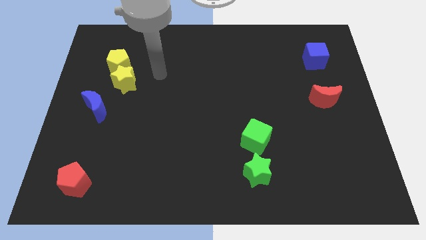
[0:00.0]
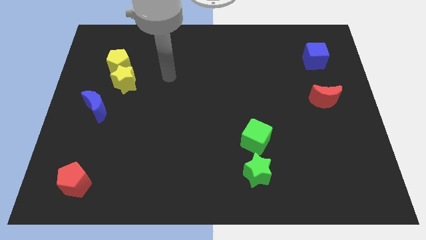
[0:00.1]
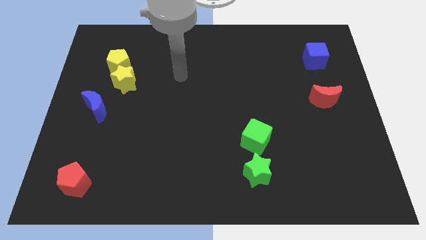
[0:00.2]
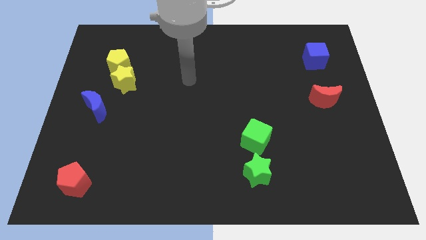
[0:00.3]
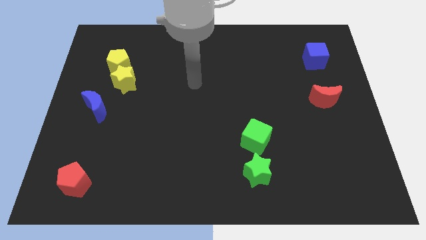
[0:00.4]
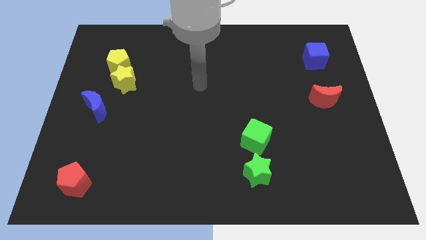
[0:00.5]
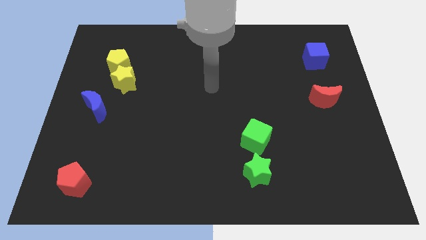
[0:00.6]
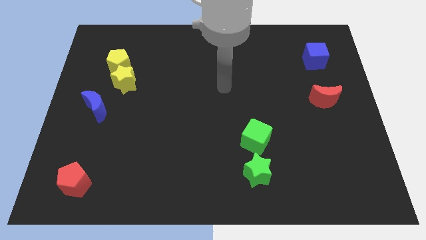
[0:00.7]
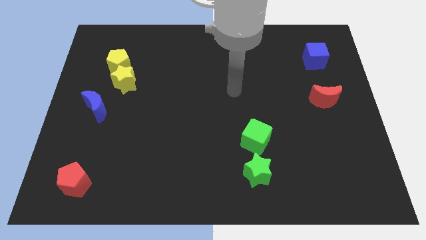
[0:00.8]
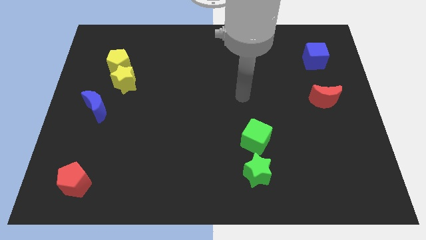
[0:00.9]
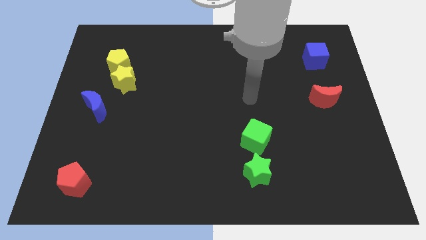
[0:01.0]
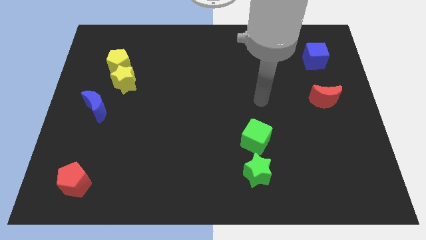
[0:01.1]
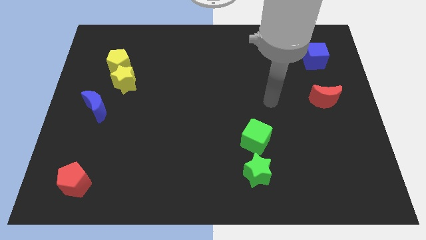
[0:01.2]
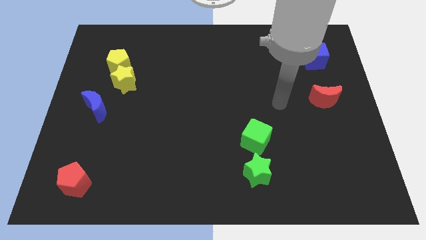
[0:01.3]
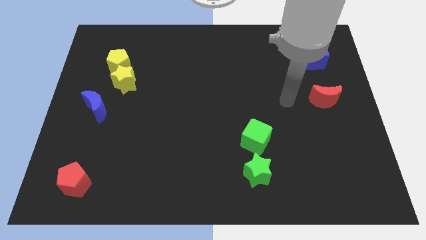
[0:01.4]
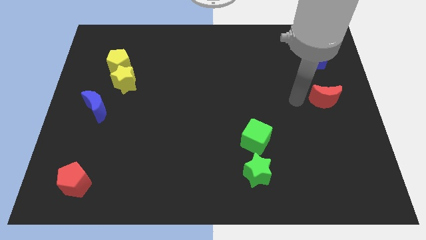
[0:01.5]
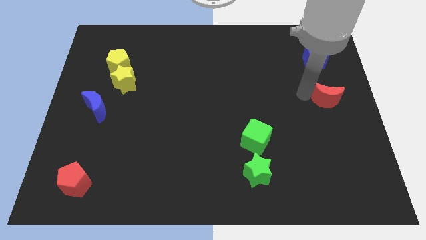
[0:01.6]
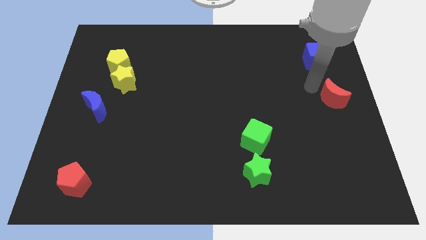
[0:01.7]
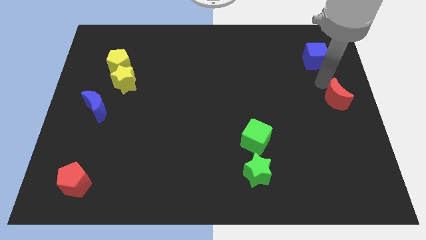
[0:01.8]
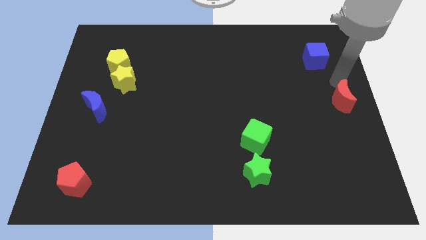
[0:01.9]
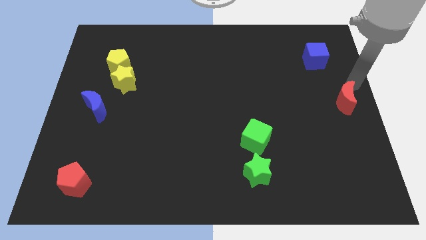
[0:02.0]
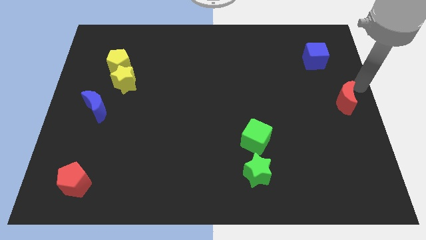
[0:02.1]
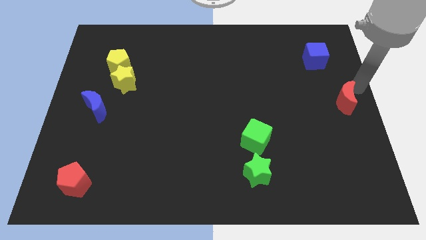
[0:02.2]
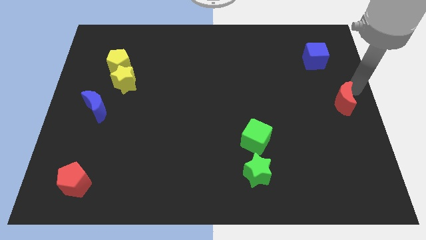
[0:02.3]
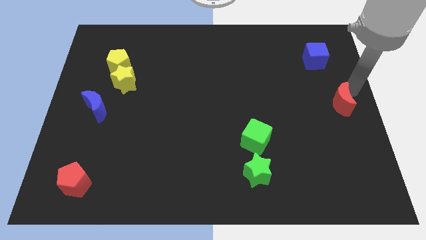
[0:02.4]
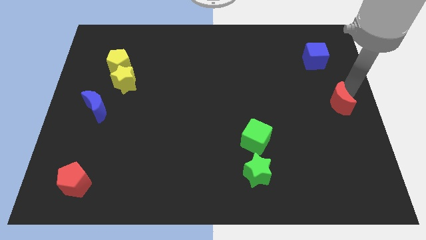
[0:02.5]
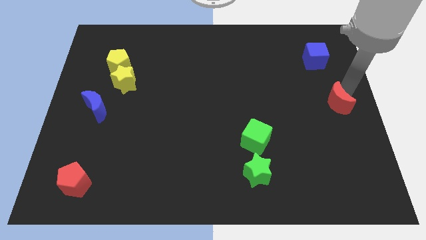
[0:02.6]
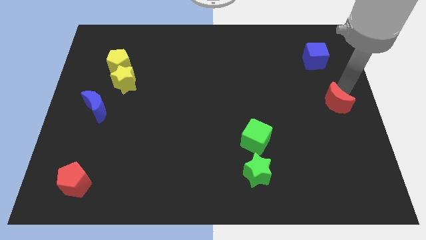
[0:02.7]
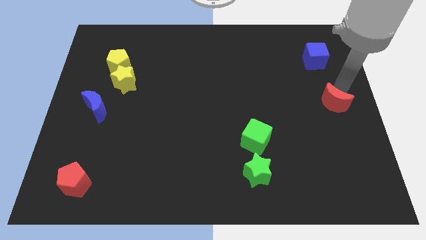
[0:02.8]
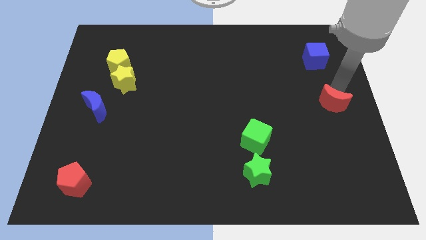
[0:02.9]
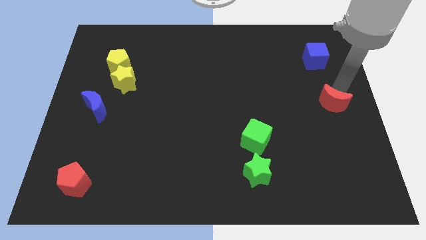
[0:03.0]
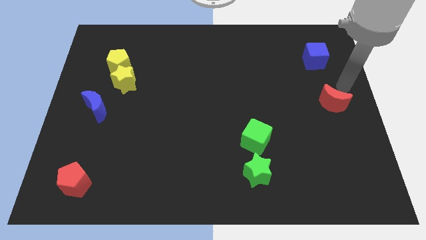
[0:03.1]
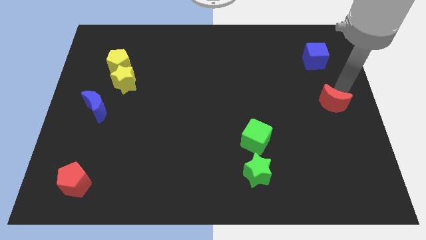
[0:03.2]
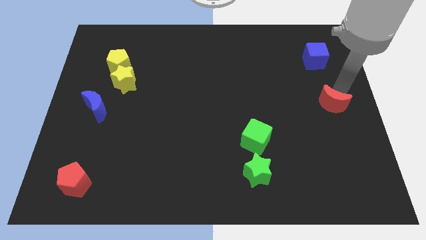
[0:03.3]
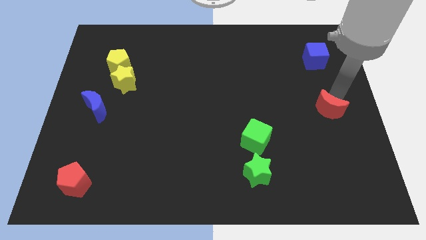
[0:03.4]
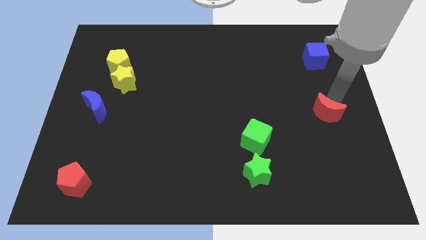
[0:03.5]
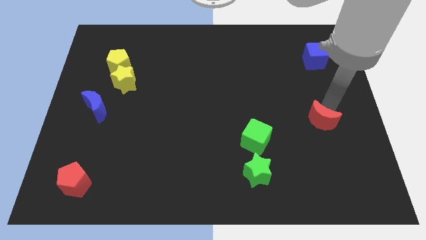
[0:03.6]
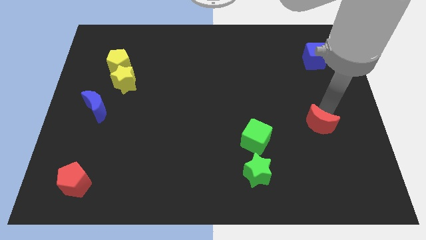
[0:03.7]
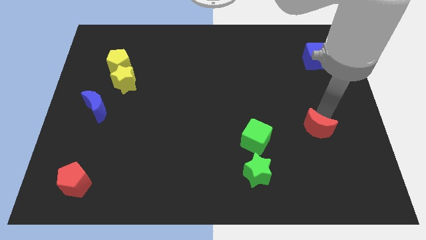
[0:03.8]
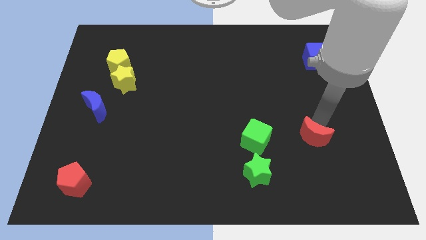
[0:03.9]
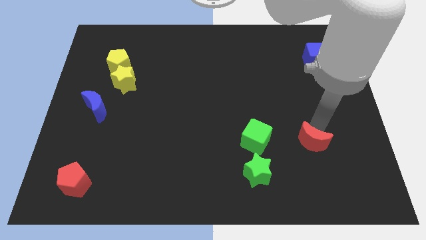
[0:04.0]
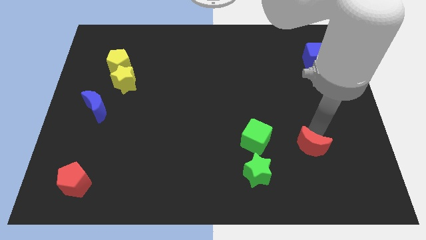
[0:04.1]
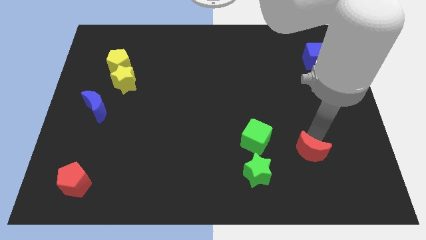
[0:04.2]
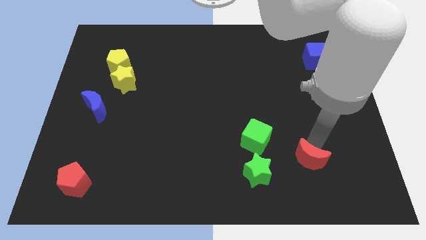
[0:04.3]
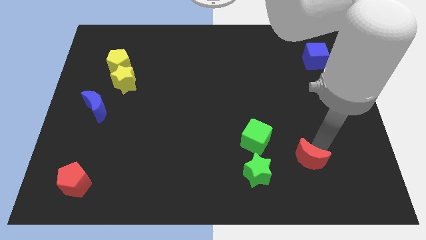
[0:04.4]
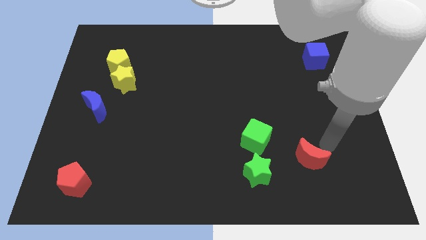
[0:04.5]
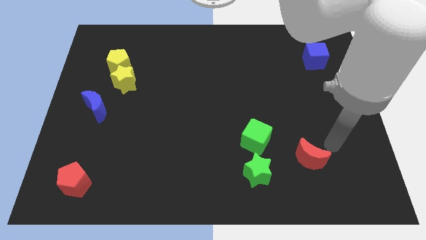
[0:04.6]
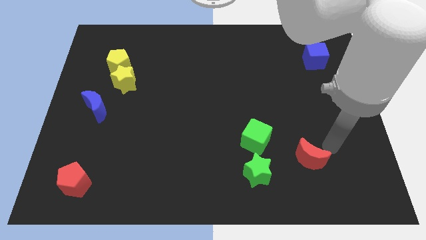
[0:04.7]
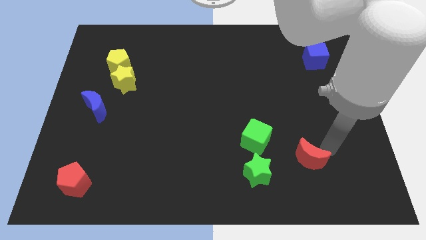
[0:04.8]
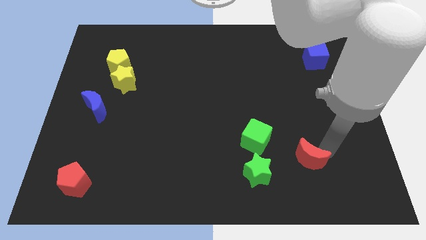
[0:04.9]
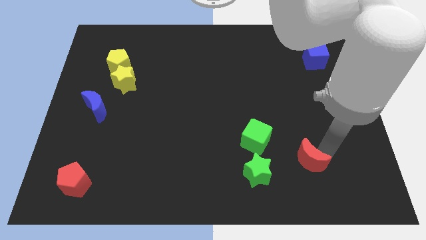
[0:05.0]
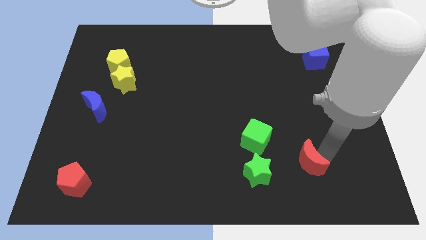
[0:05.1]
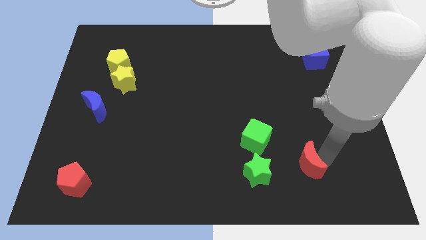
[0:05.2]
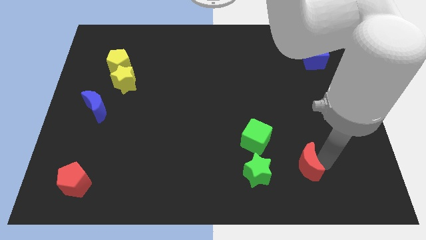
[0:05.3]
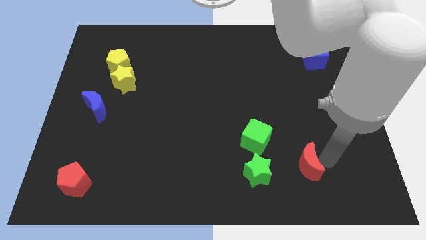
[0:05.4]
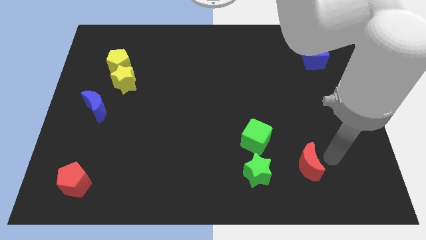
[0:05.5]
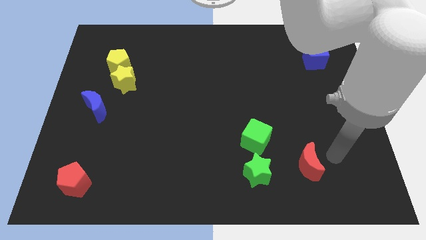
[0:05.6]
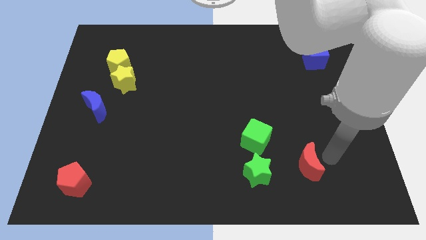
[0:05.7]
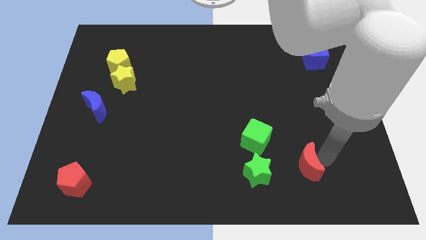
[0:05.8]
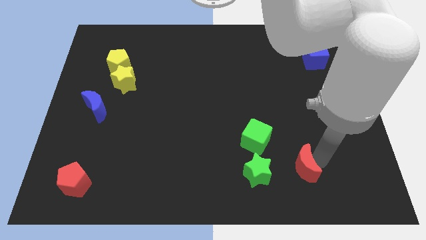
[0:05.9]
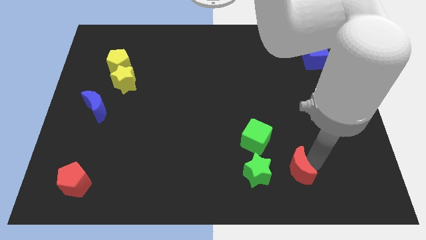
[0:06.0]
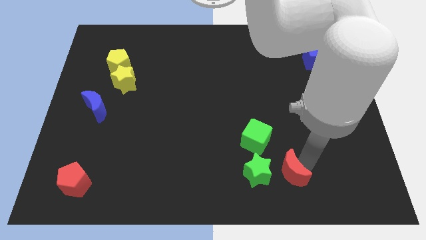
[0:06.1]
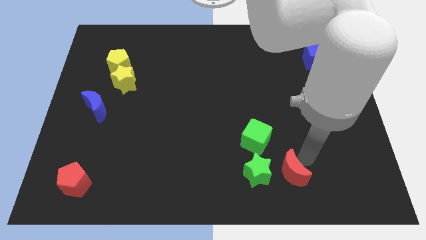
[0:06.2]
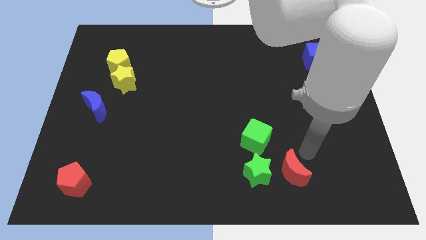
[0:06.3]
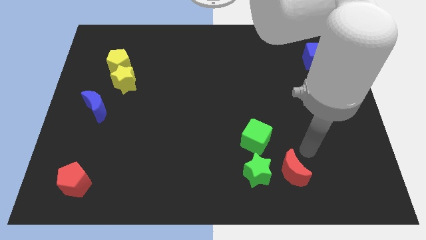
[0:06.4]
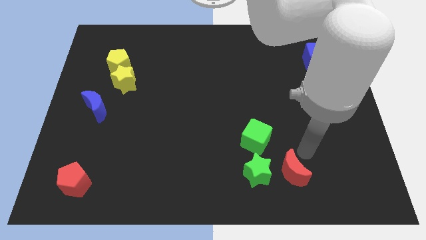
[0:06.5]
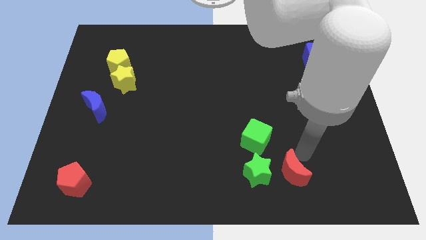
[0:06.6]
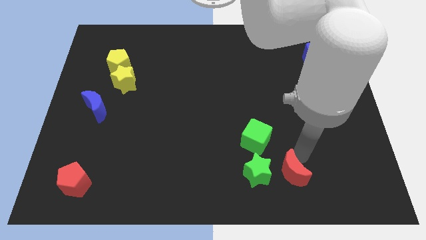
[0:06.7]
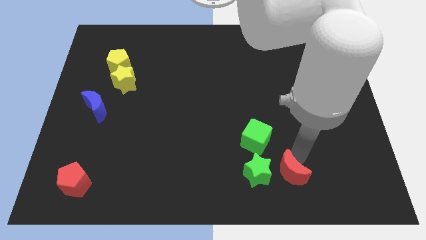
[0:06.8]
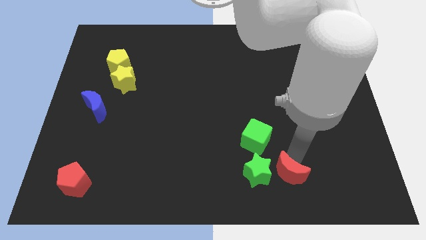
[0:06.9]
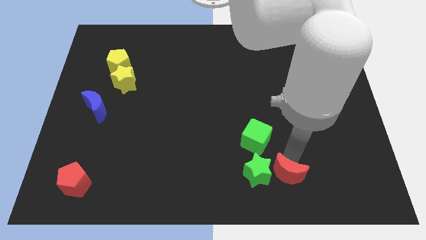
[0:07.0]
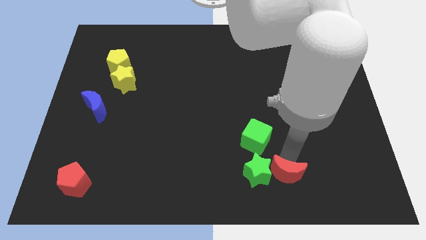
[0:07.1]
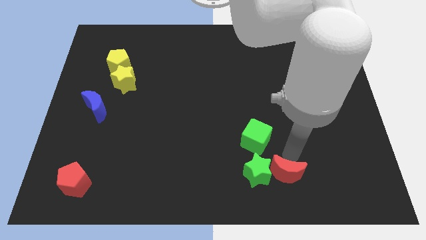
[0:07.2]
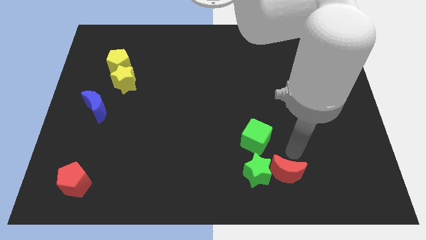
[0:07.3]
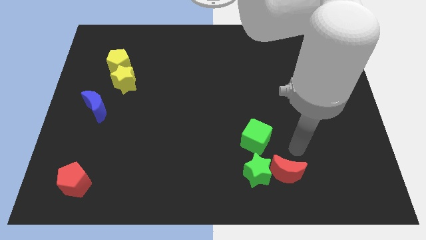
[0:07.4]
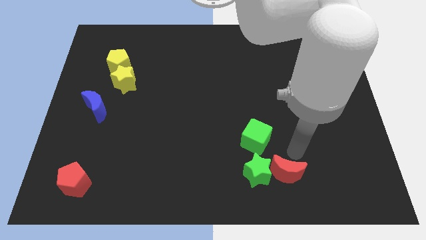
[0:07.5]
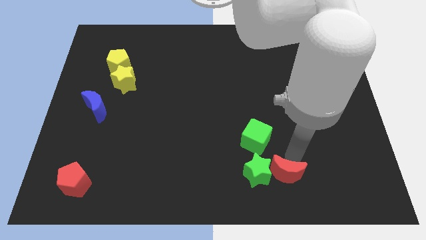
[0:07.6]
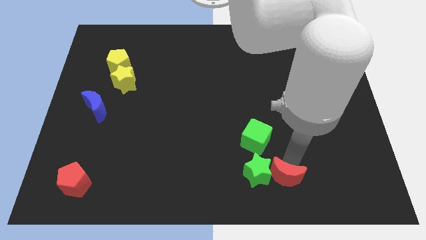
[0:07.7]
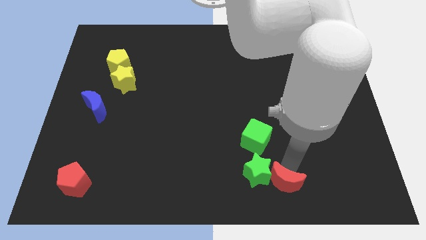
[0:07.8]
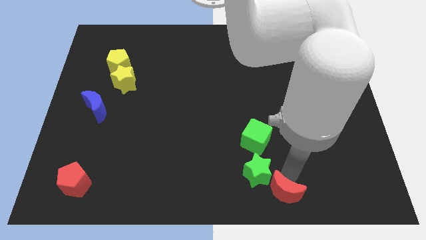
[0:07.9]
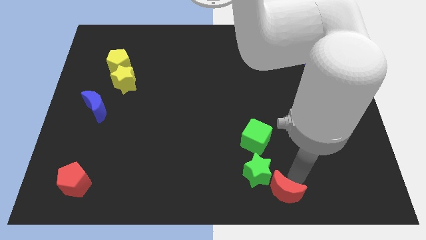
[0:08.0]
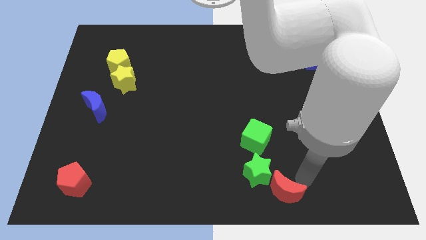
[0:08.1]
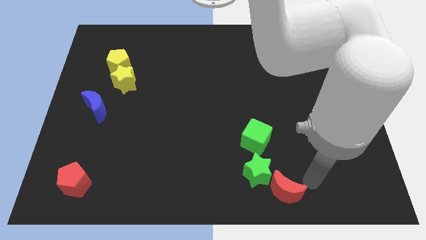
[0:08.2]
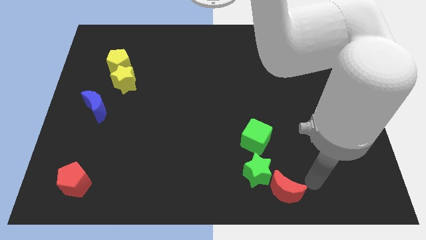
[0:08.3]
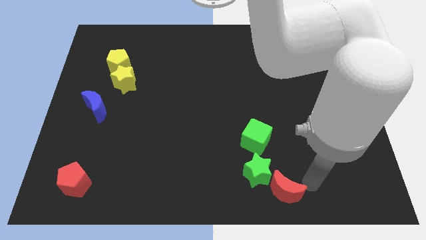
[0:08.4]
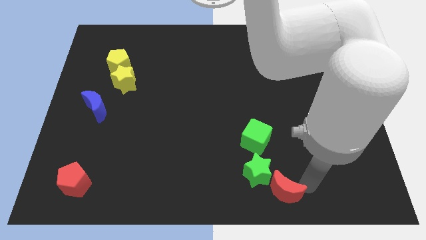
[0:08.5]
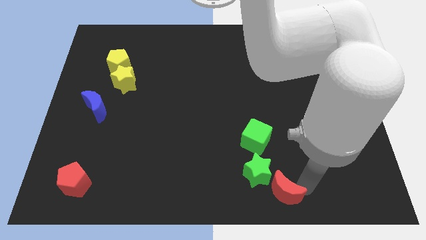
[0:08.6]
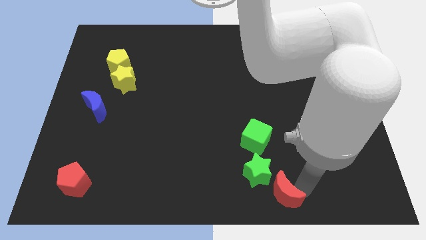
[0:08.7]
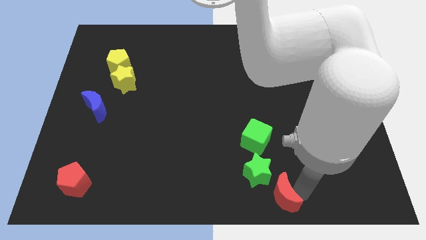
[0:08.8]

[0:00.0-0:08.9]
put the red moon to the bottom
